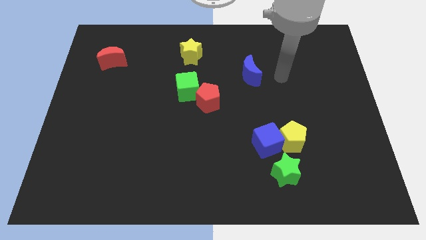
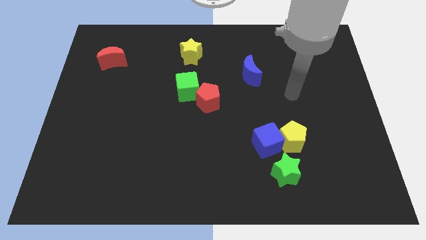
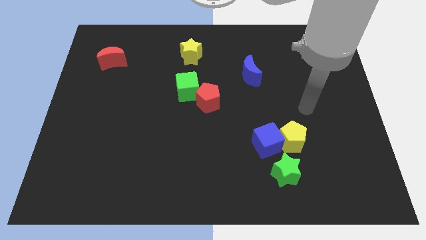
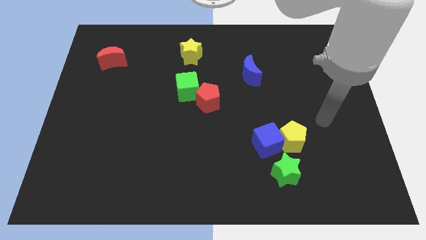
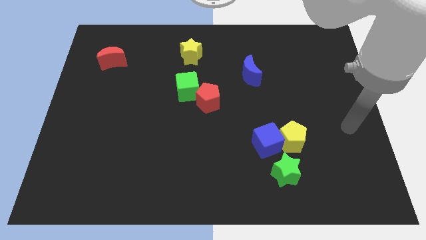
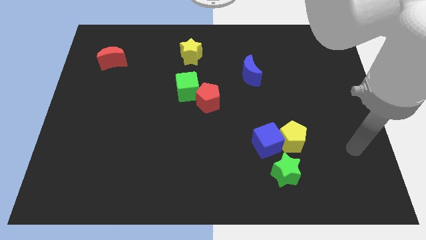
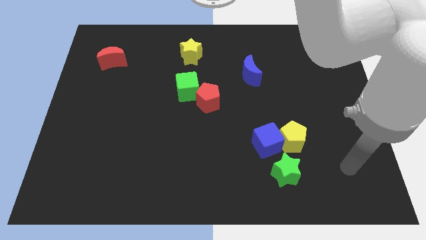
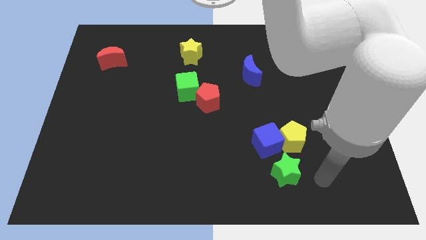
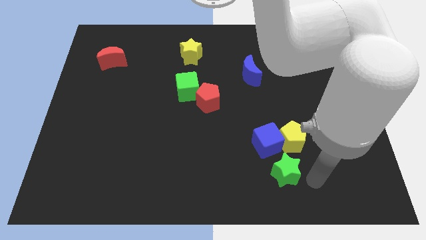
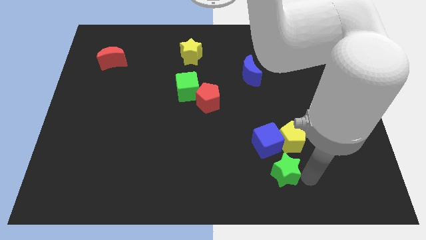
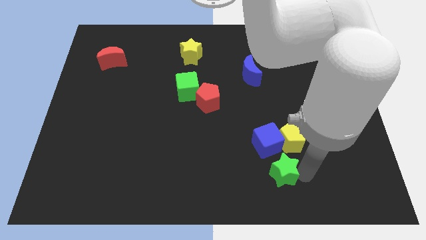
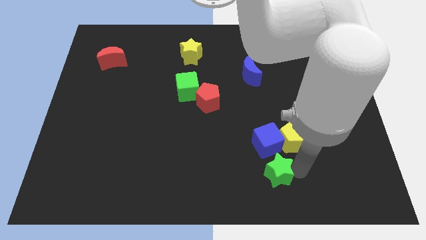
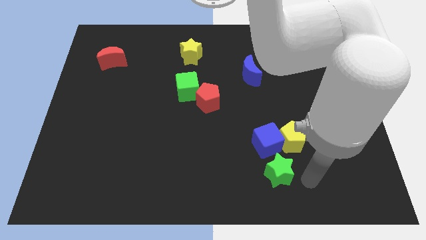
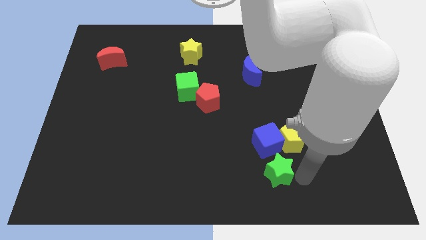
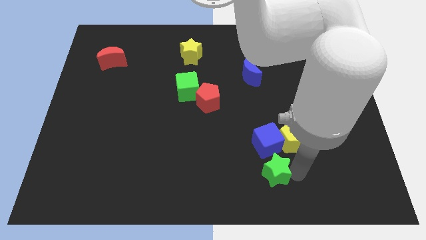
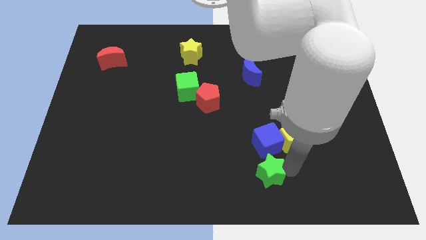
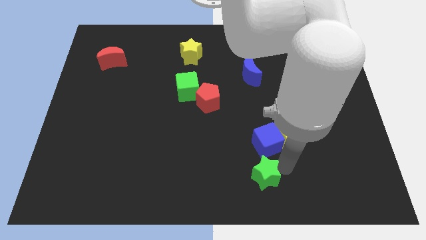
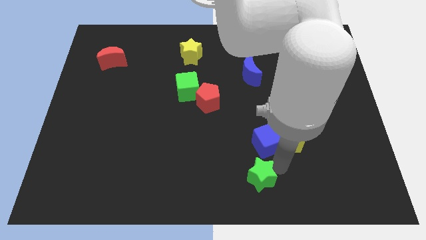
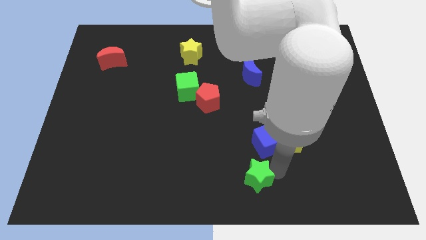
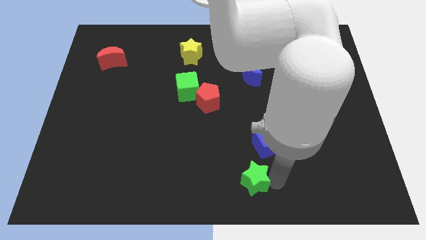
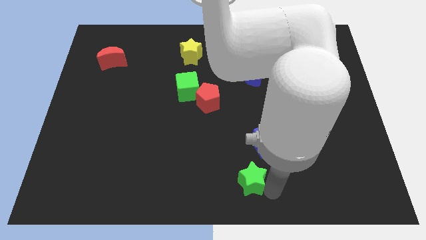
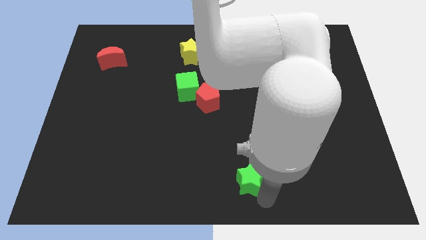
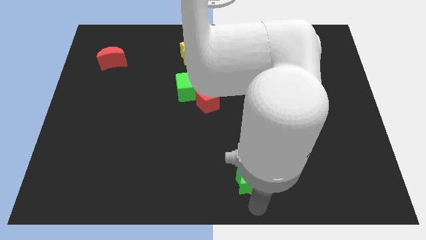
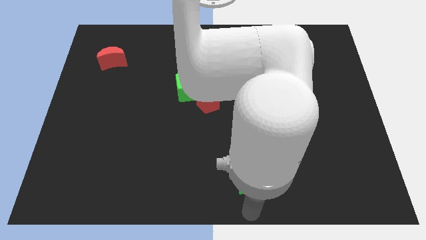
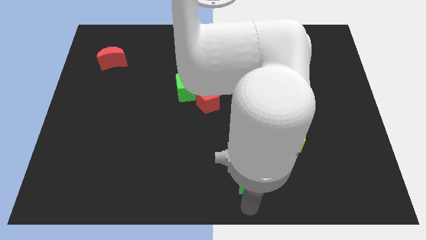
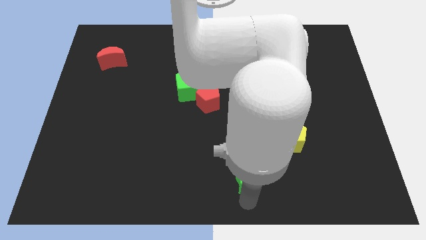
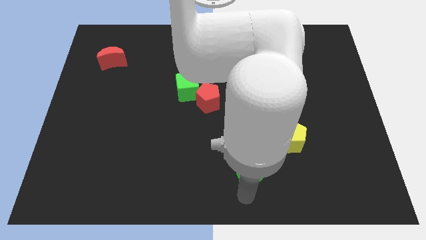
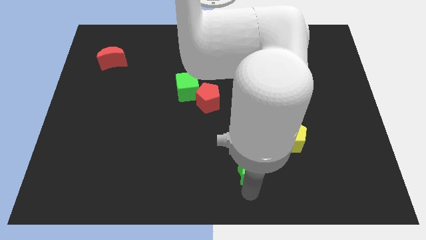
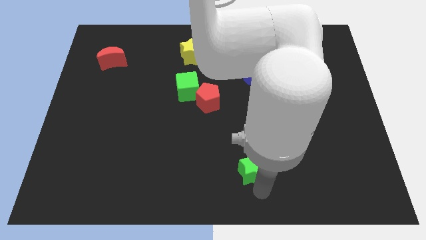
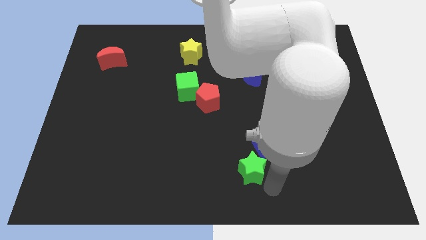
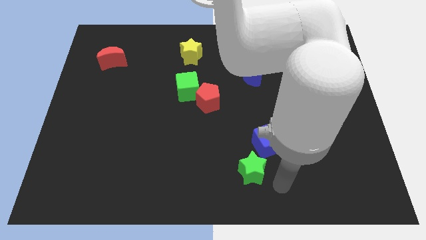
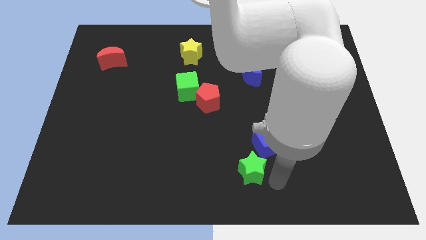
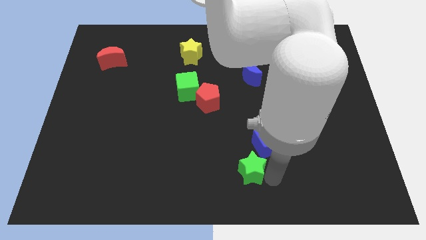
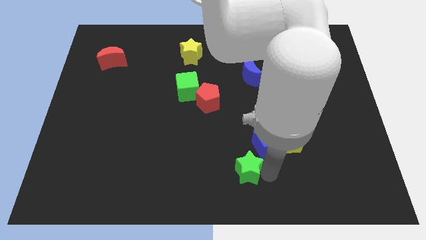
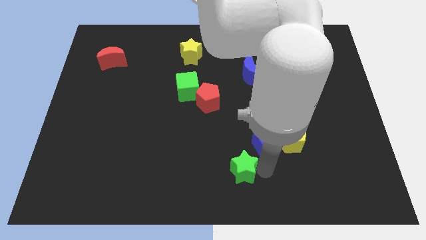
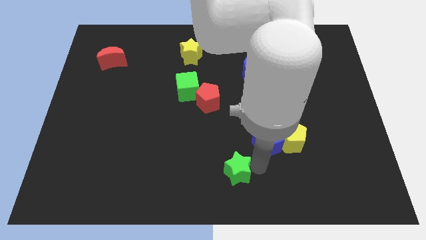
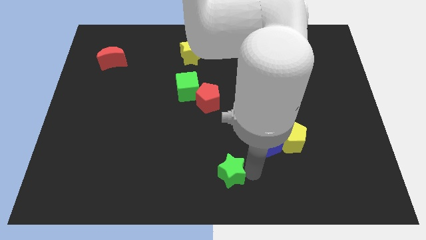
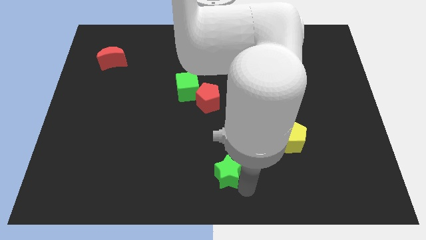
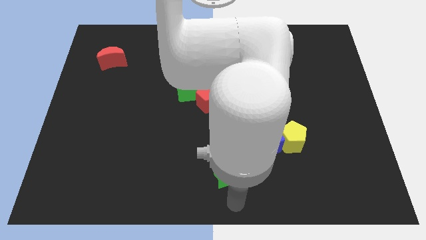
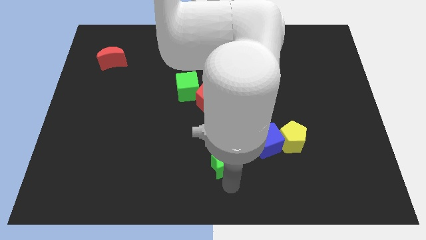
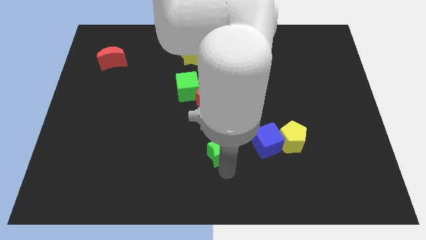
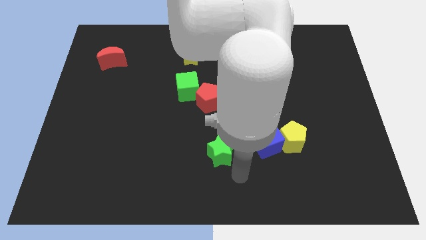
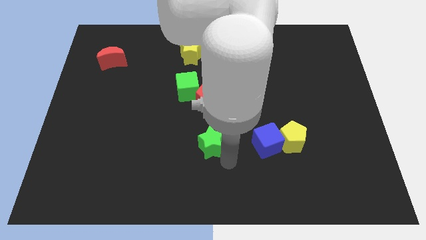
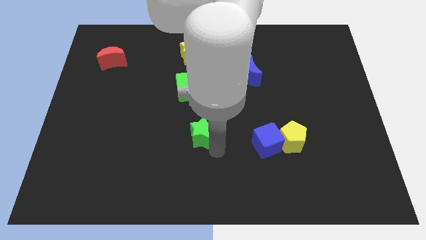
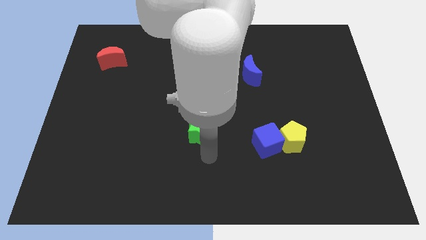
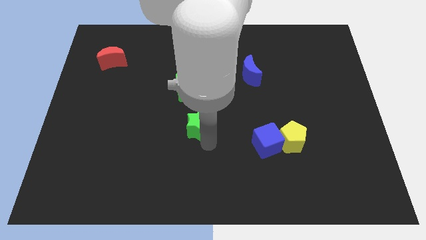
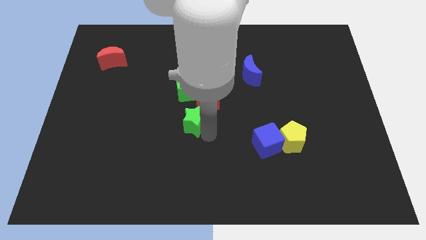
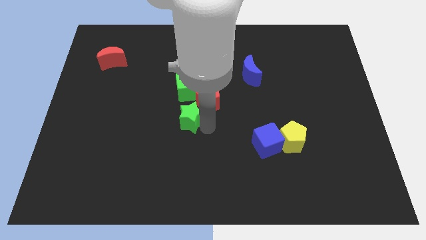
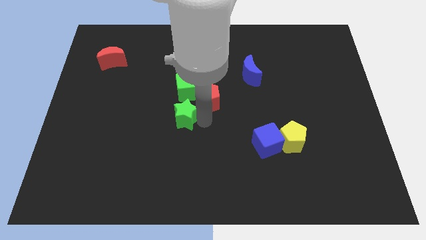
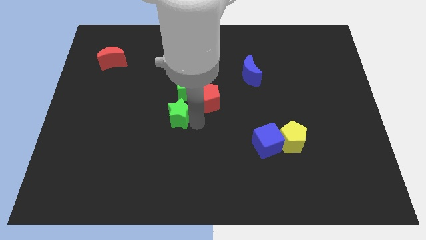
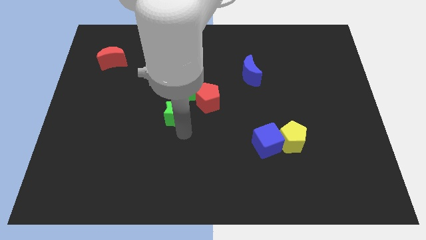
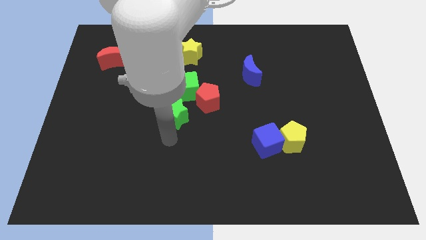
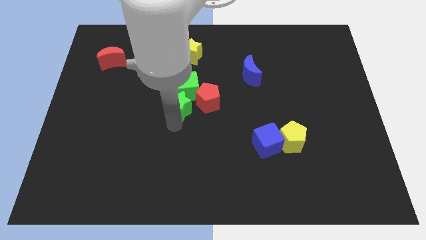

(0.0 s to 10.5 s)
slide the green star next to the green cube

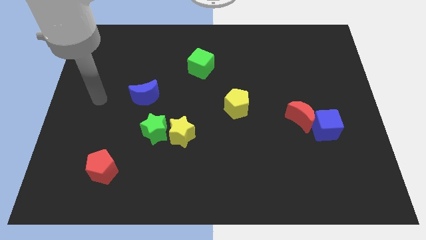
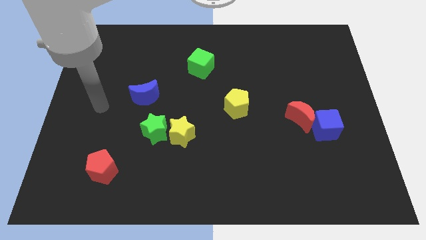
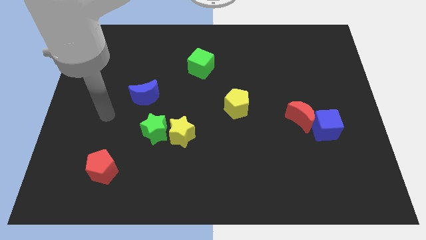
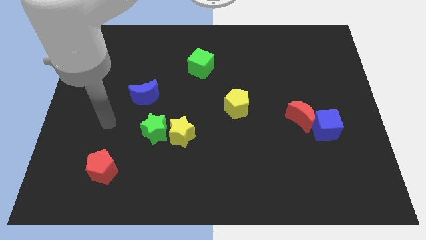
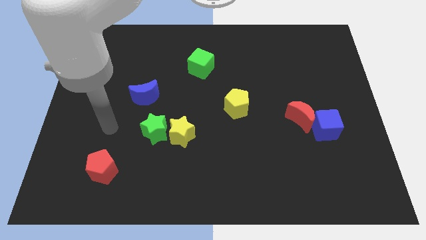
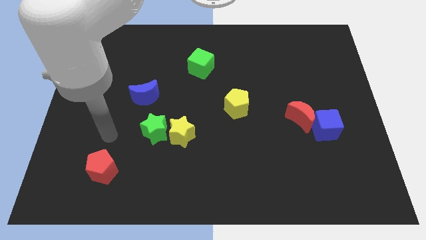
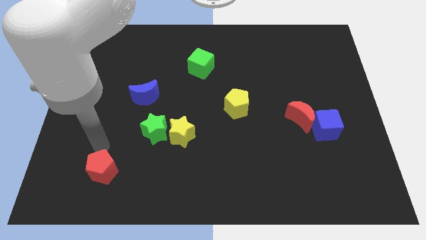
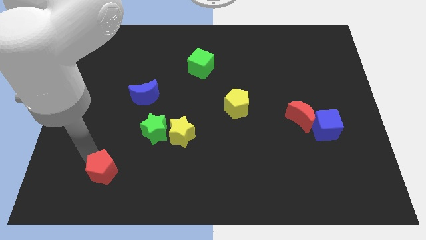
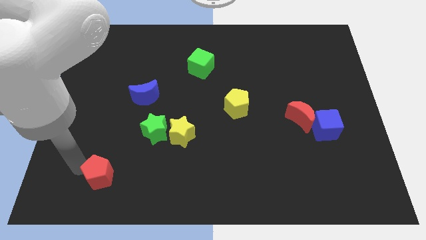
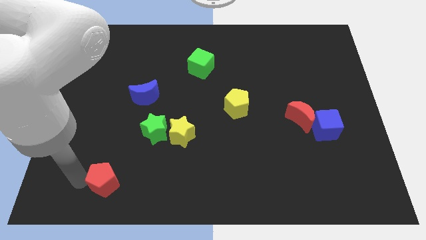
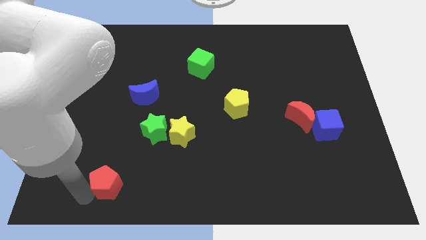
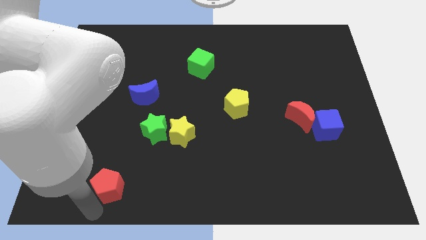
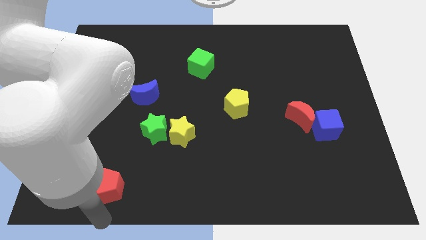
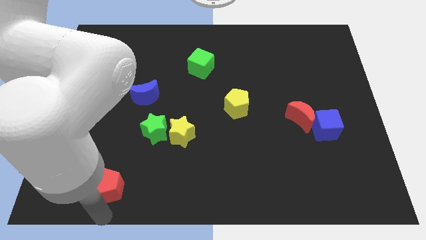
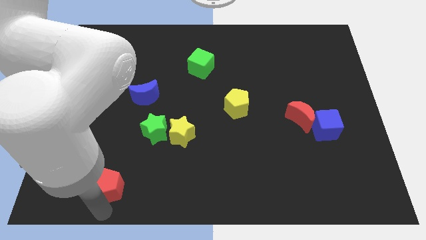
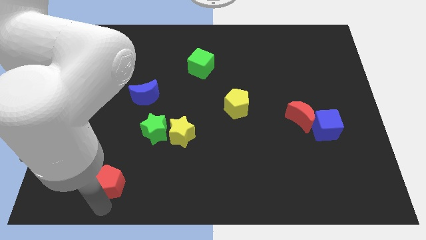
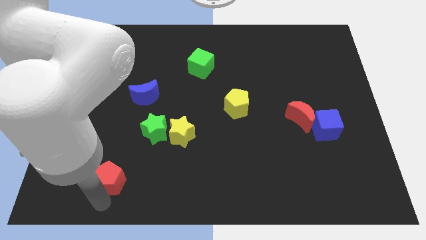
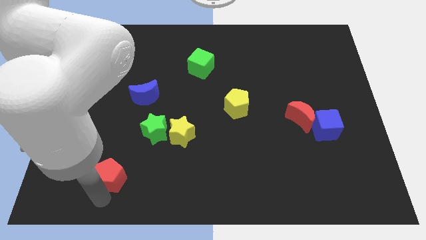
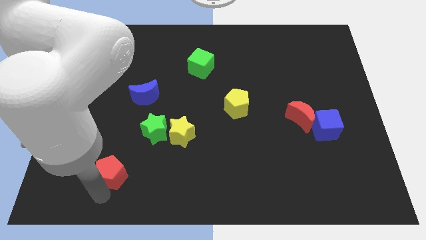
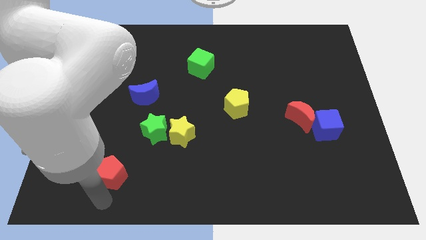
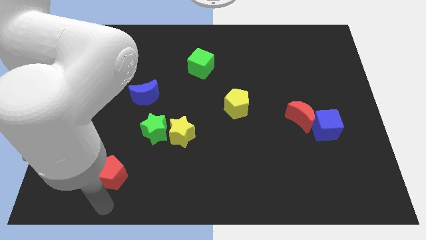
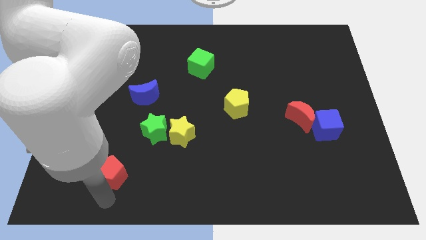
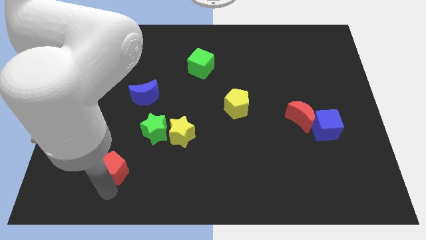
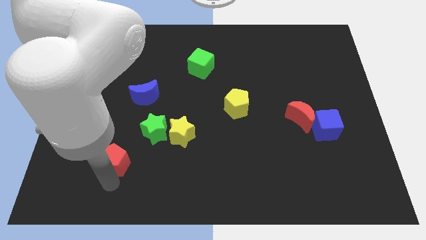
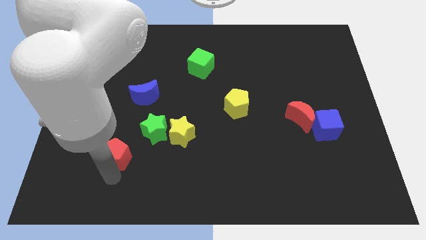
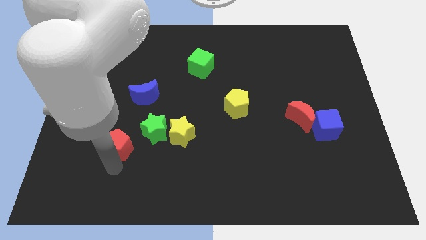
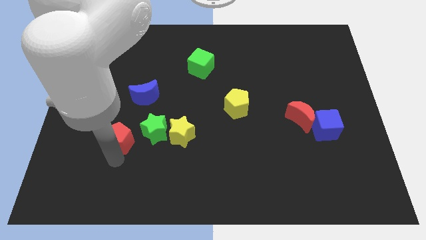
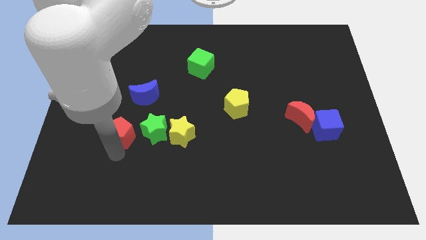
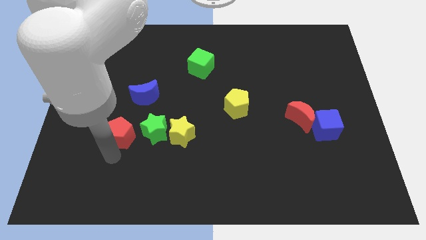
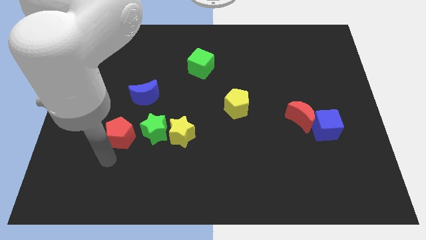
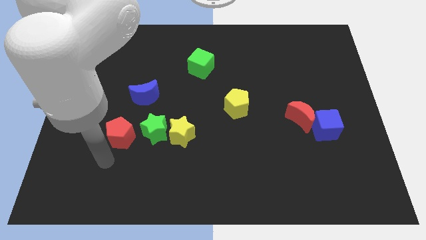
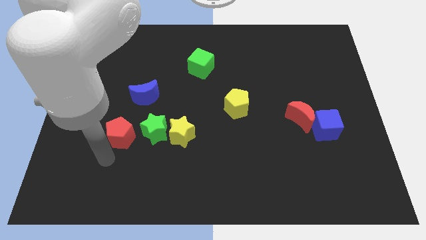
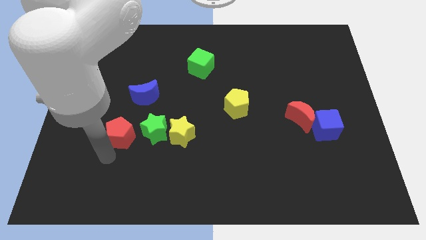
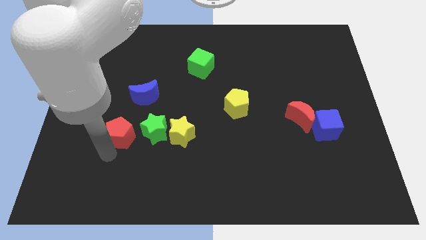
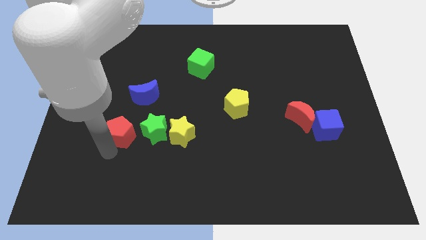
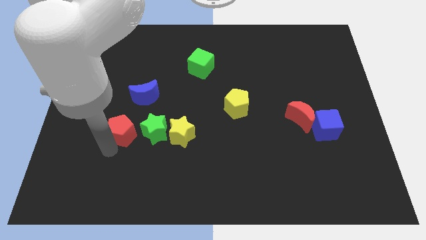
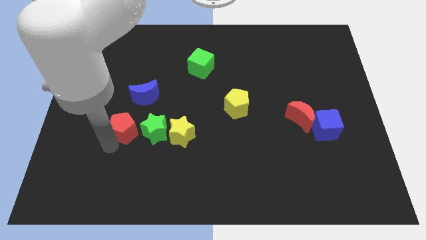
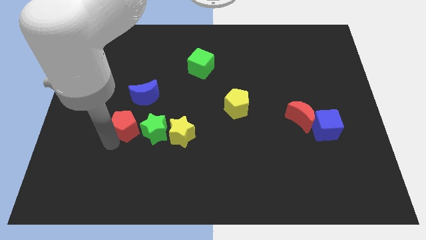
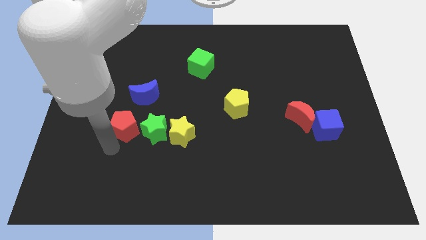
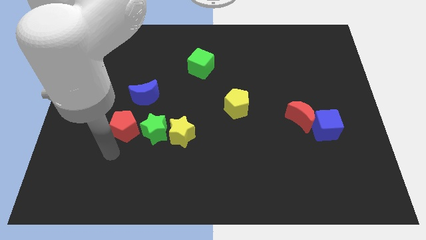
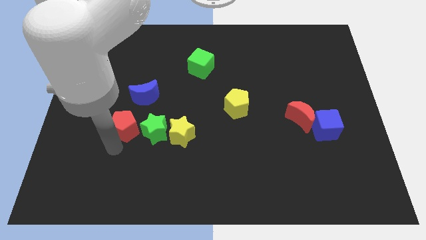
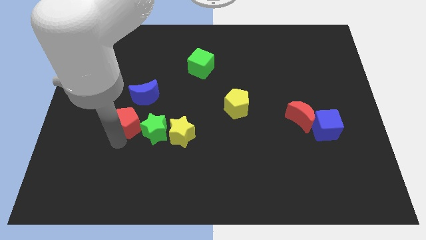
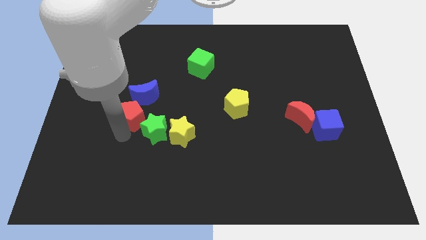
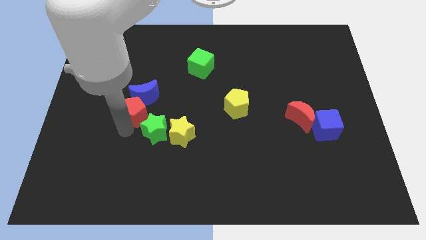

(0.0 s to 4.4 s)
put the red pentagon towards the blue moon
